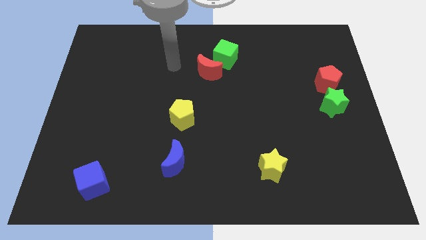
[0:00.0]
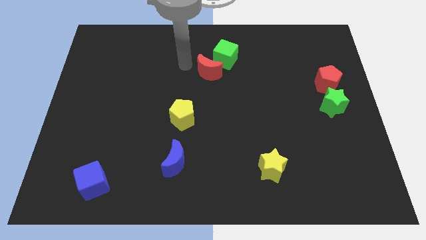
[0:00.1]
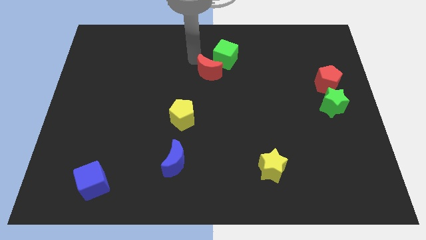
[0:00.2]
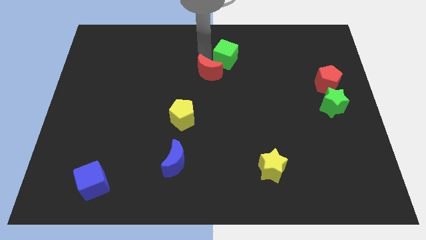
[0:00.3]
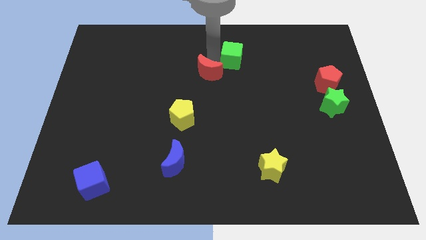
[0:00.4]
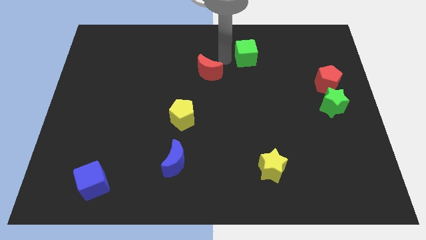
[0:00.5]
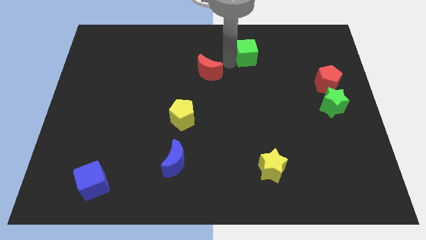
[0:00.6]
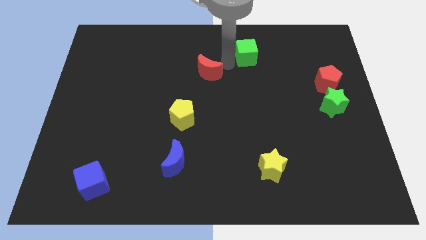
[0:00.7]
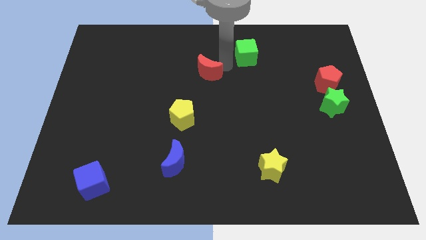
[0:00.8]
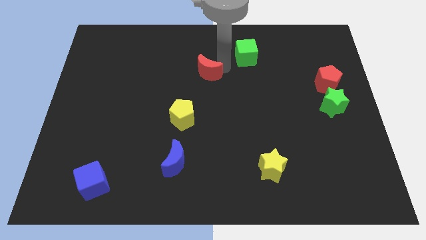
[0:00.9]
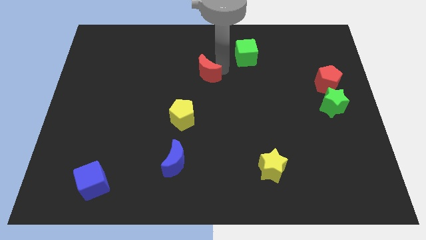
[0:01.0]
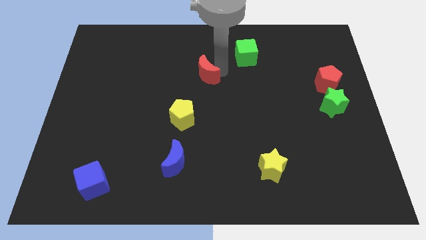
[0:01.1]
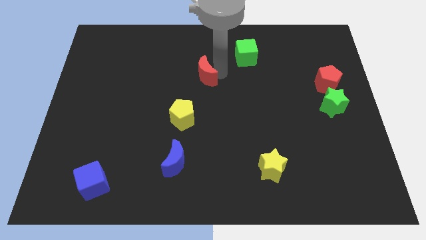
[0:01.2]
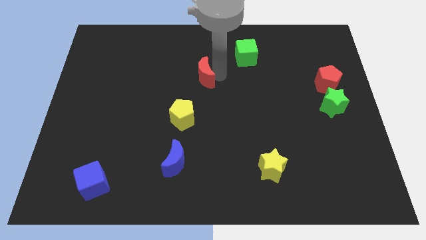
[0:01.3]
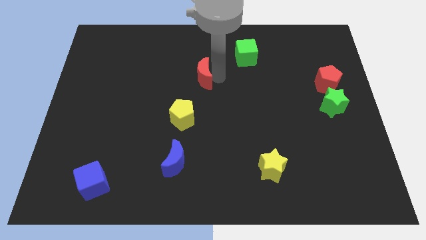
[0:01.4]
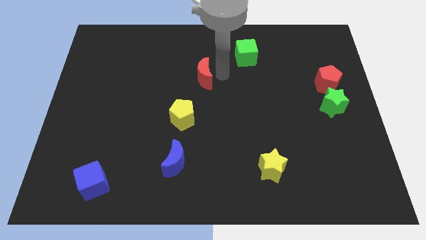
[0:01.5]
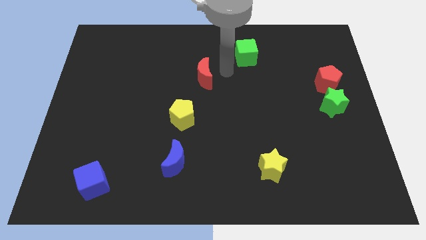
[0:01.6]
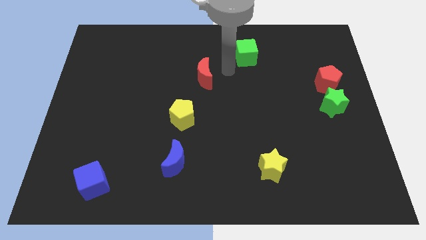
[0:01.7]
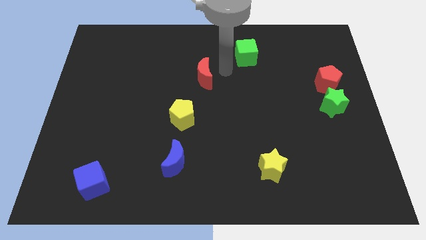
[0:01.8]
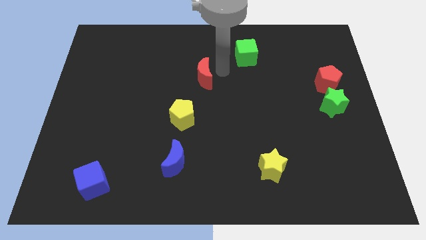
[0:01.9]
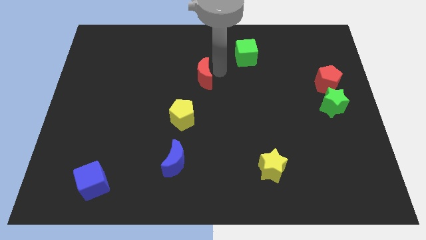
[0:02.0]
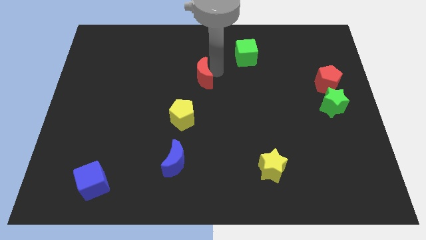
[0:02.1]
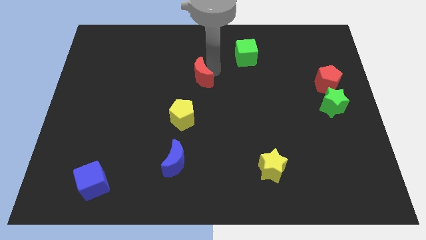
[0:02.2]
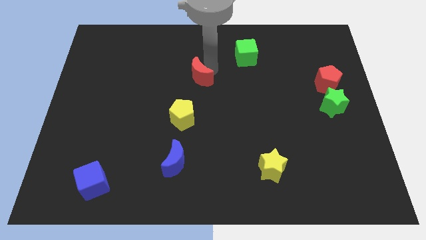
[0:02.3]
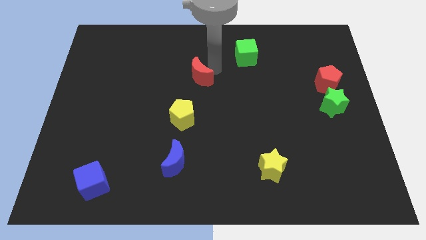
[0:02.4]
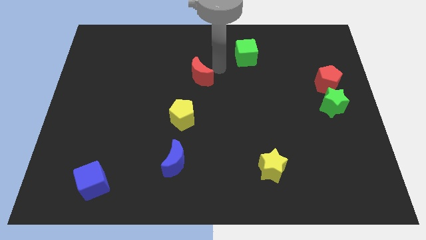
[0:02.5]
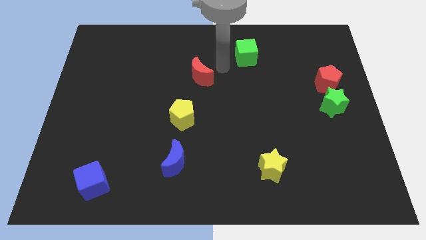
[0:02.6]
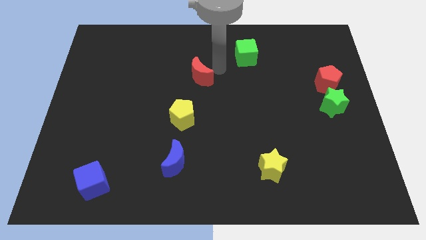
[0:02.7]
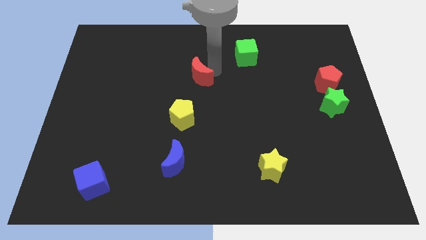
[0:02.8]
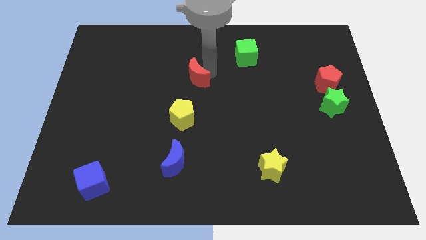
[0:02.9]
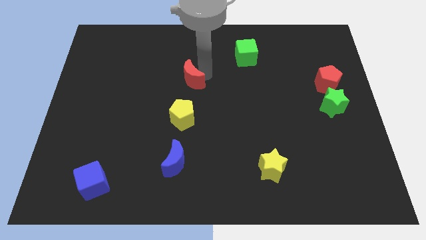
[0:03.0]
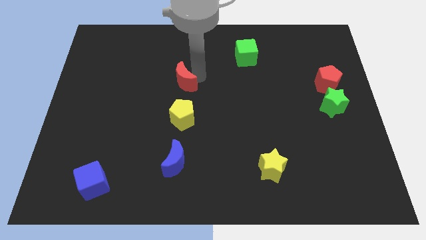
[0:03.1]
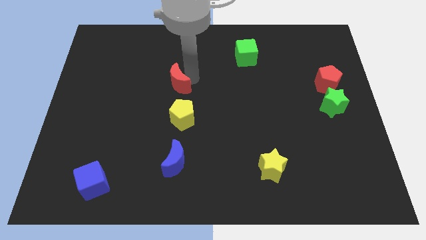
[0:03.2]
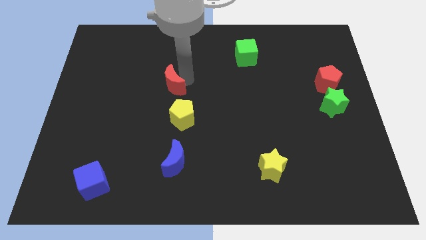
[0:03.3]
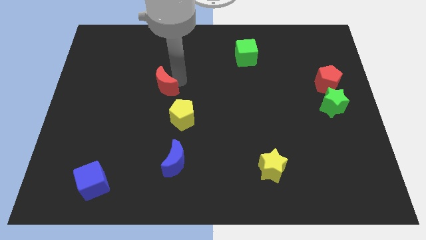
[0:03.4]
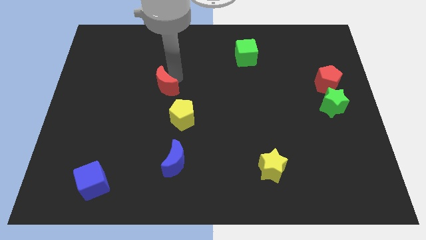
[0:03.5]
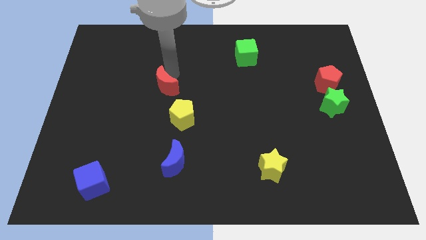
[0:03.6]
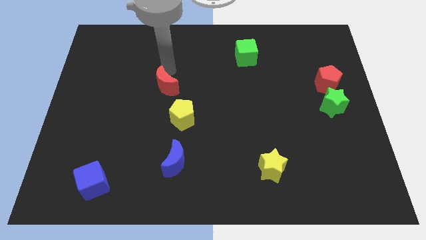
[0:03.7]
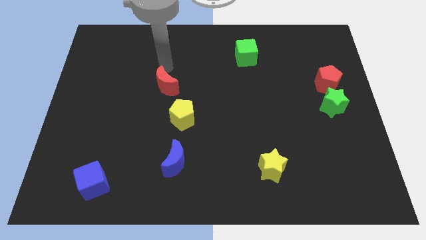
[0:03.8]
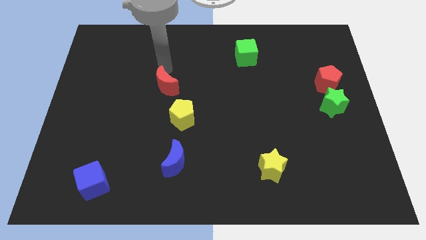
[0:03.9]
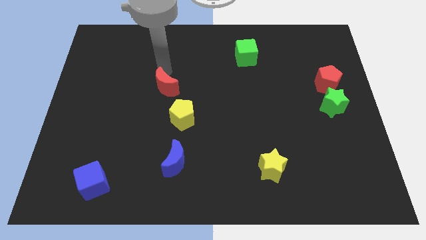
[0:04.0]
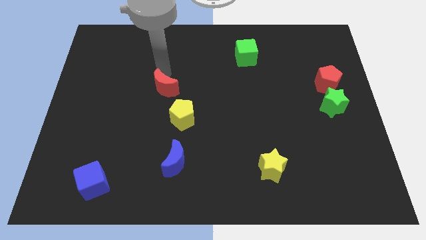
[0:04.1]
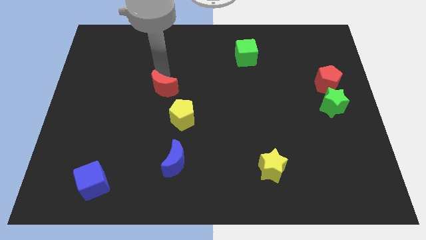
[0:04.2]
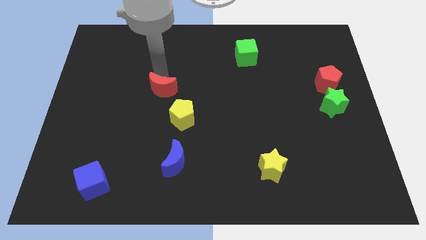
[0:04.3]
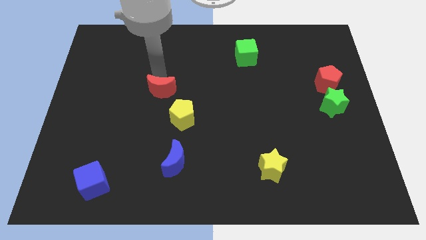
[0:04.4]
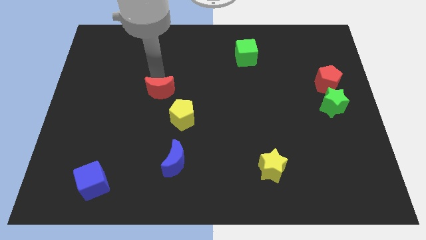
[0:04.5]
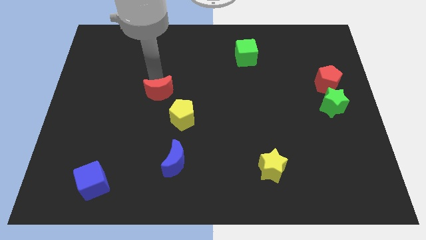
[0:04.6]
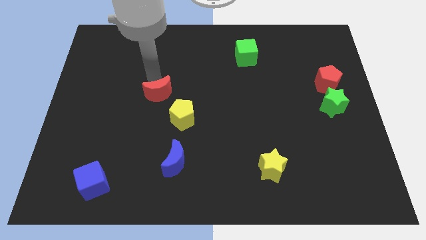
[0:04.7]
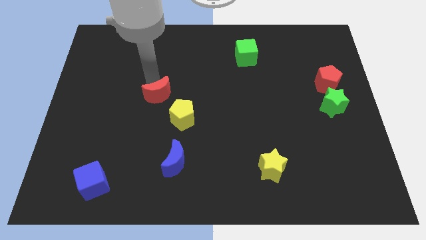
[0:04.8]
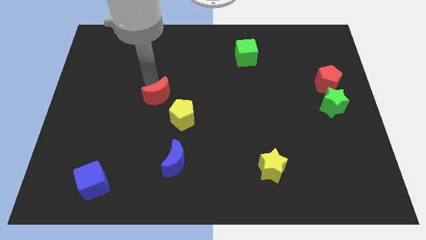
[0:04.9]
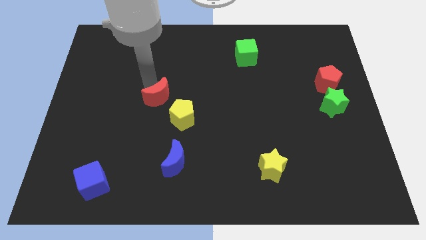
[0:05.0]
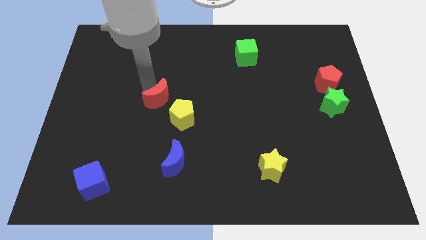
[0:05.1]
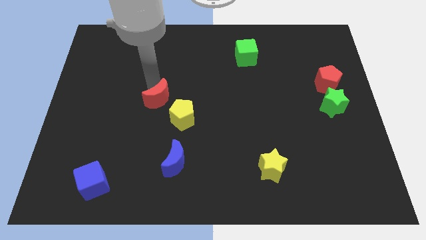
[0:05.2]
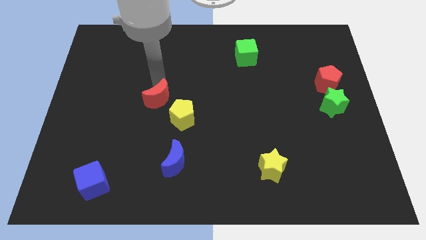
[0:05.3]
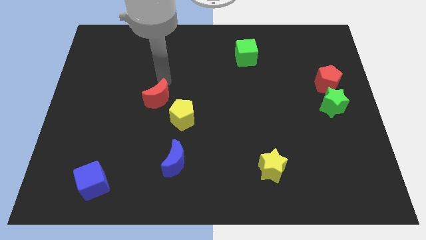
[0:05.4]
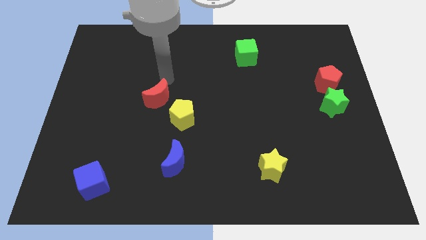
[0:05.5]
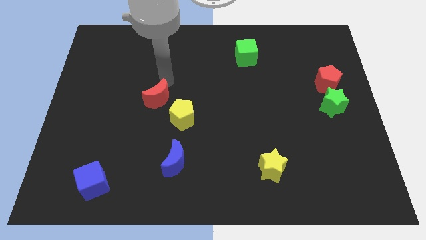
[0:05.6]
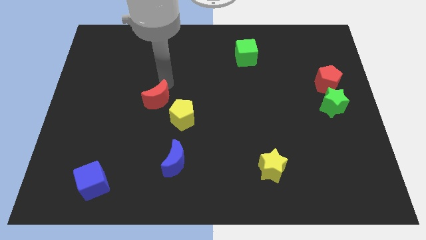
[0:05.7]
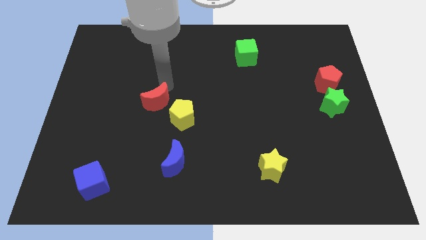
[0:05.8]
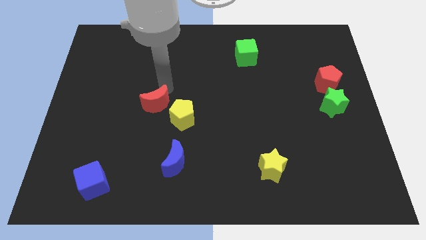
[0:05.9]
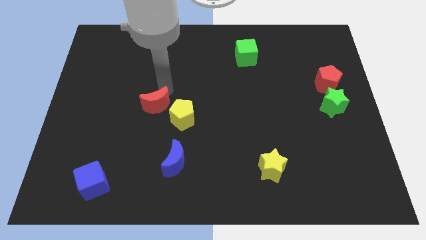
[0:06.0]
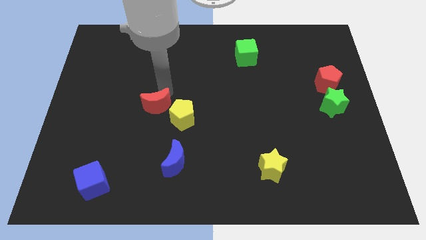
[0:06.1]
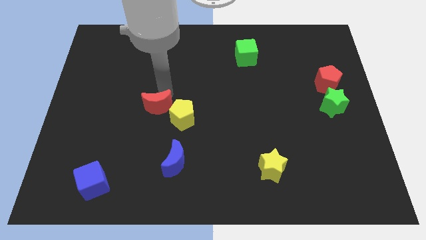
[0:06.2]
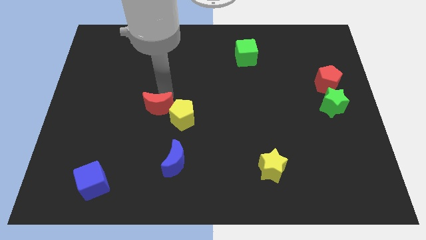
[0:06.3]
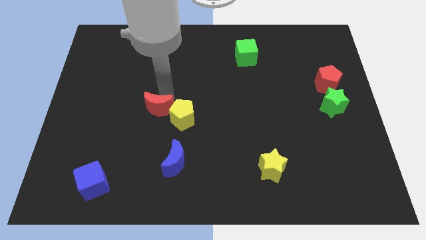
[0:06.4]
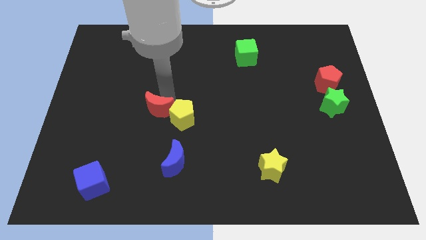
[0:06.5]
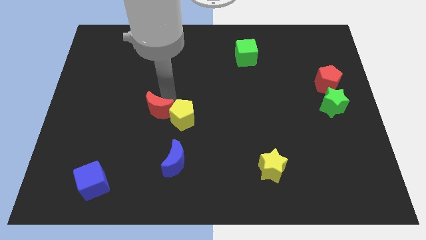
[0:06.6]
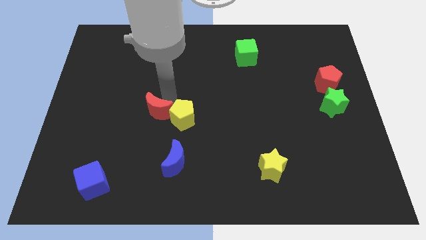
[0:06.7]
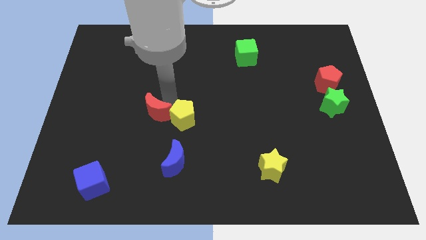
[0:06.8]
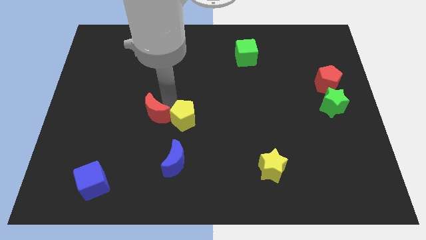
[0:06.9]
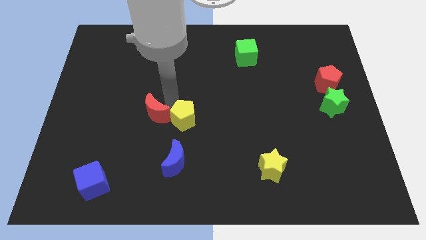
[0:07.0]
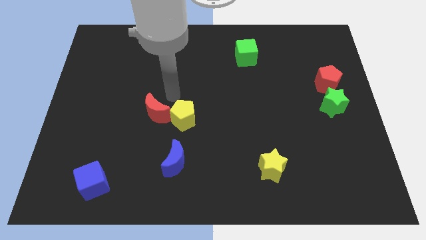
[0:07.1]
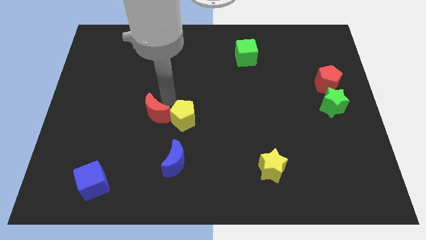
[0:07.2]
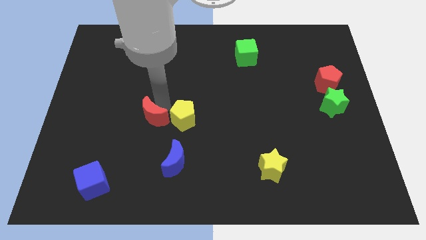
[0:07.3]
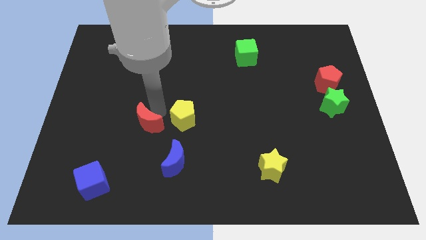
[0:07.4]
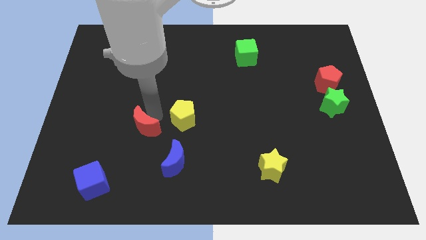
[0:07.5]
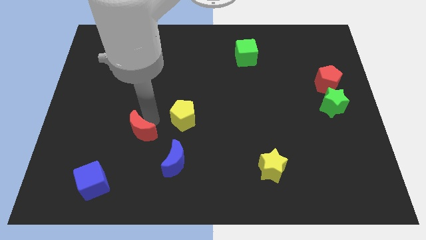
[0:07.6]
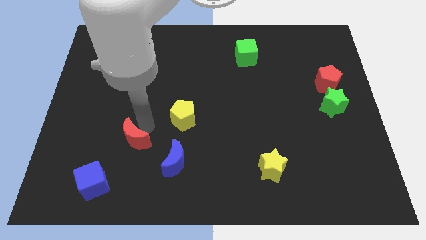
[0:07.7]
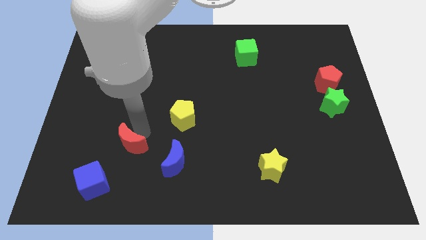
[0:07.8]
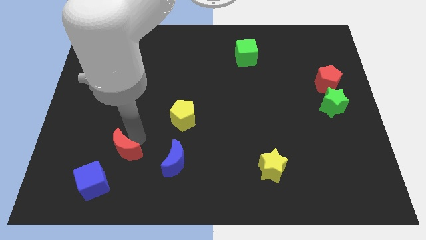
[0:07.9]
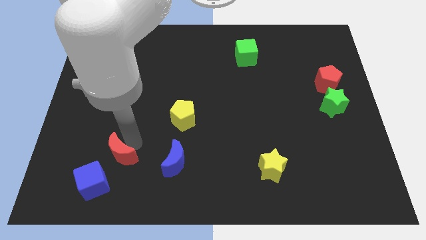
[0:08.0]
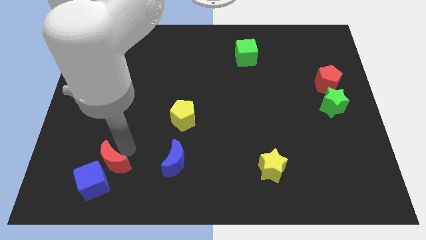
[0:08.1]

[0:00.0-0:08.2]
push the red moon towards the blue cube
